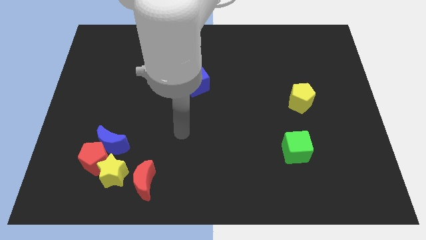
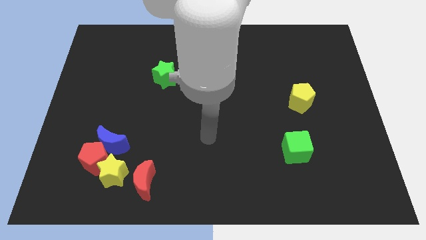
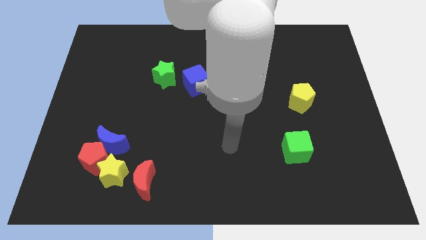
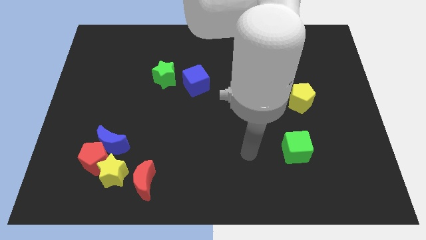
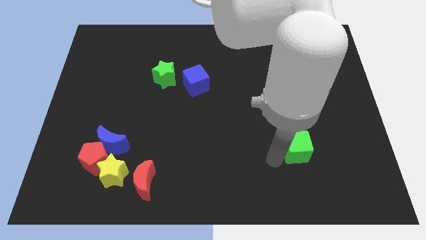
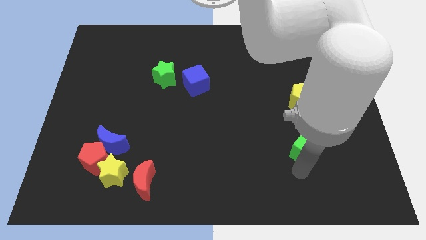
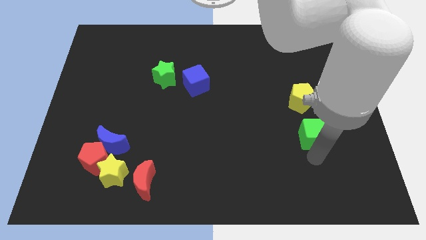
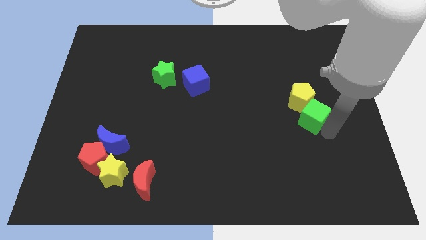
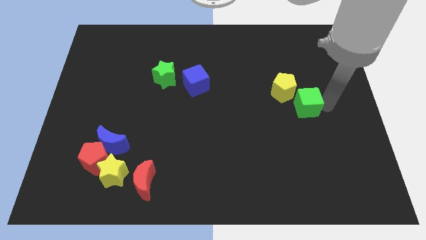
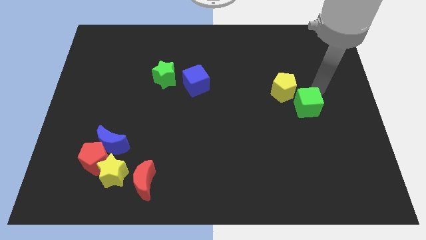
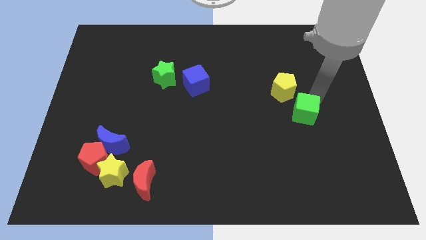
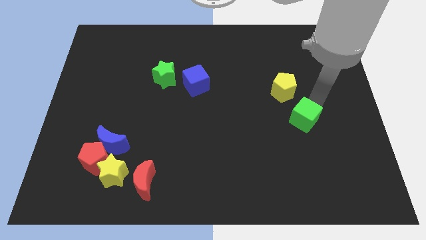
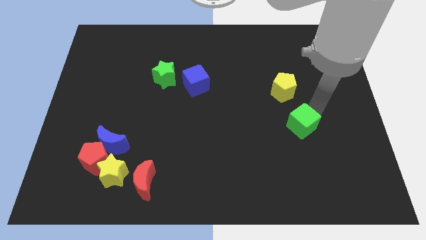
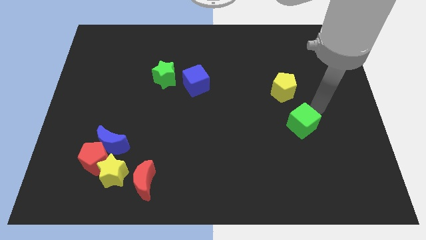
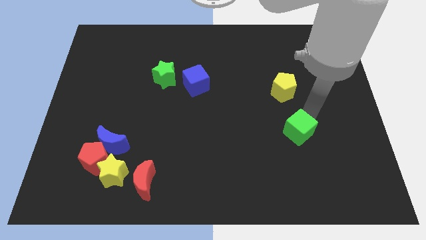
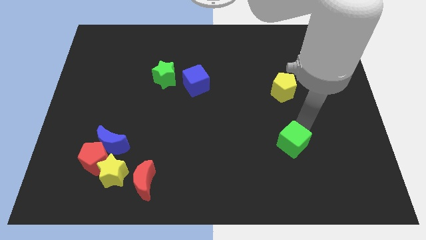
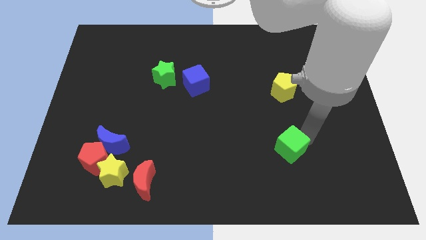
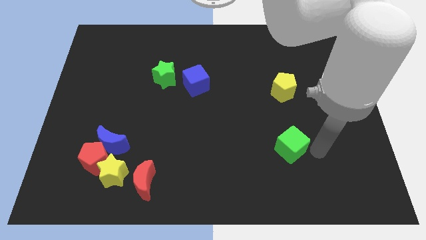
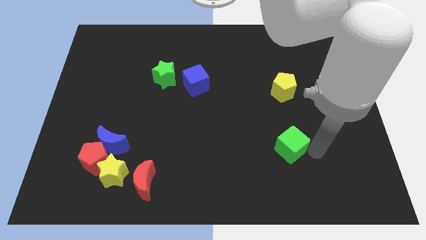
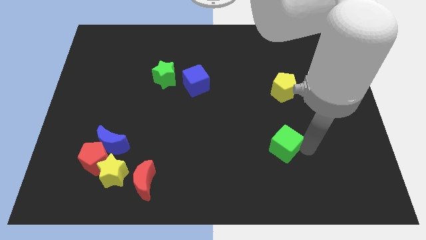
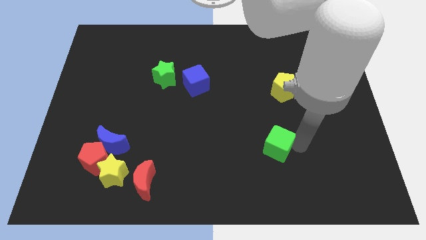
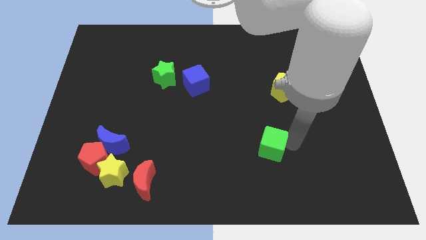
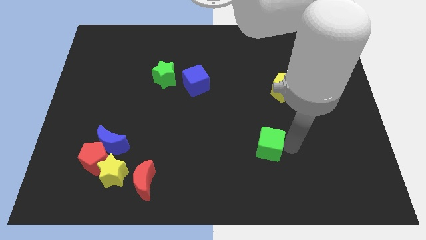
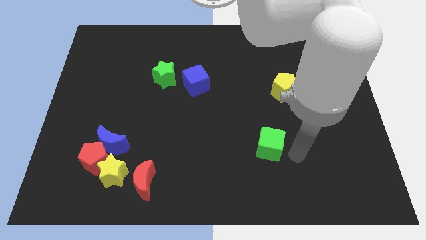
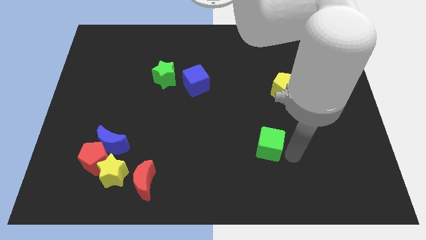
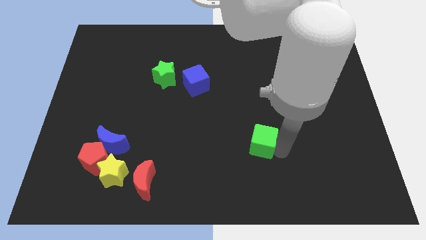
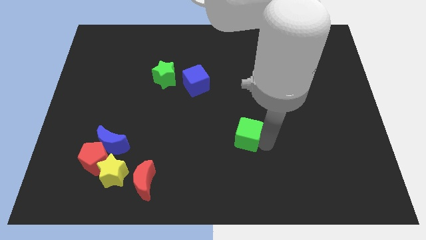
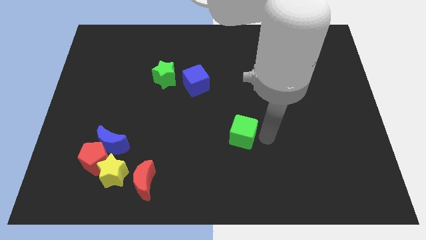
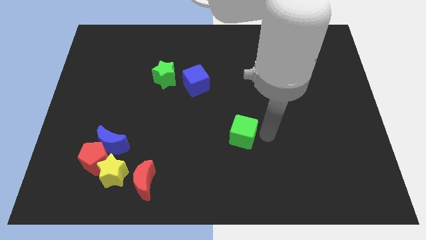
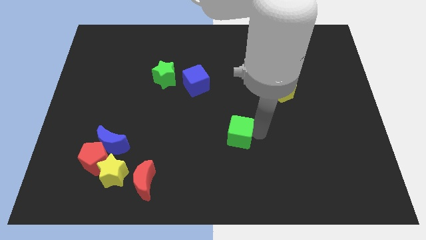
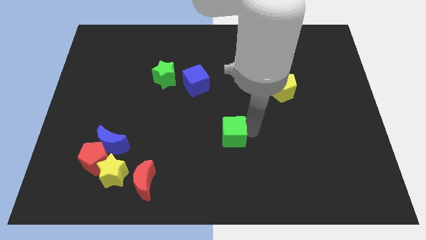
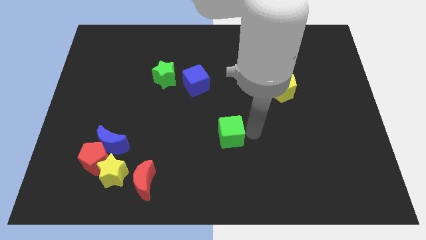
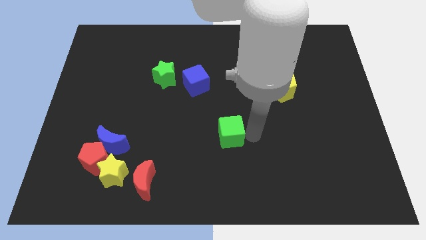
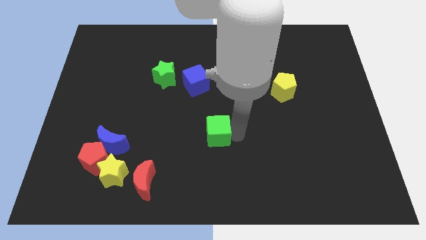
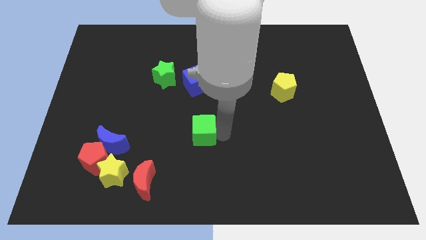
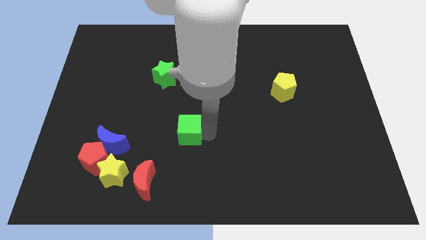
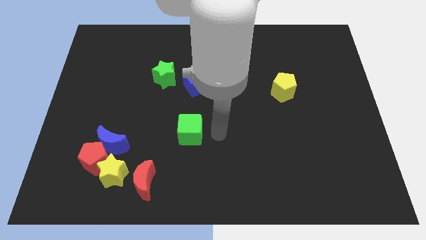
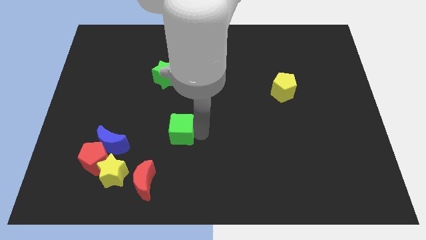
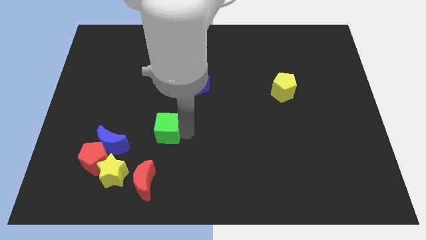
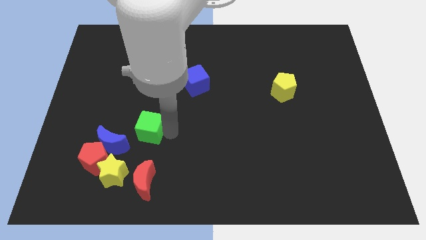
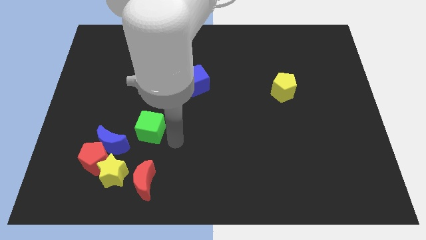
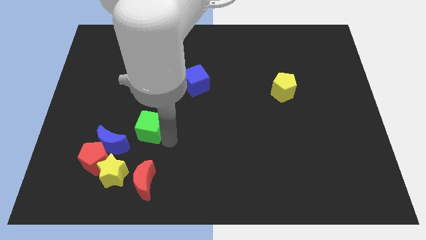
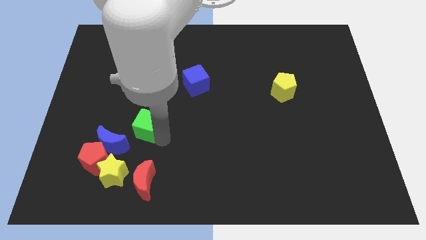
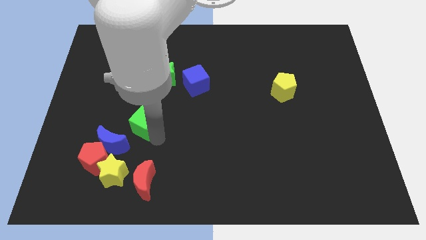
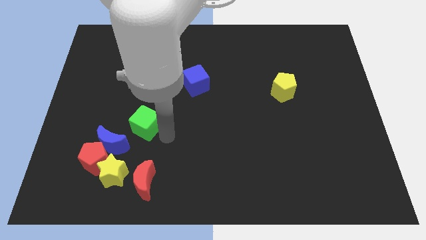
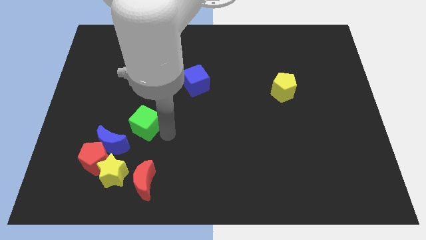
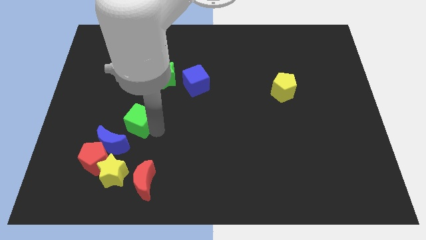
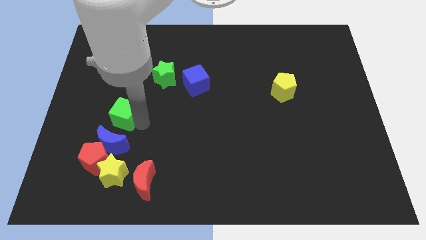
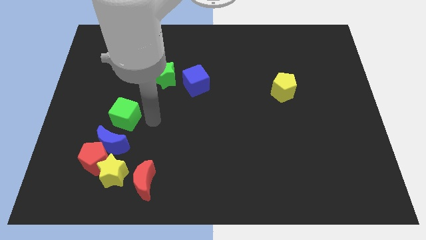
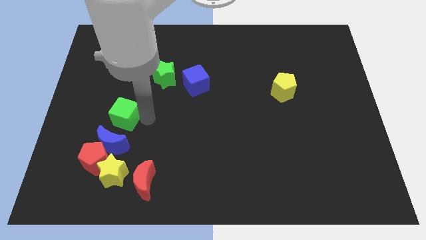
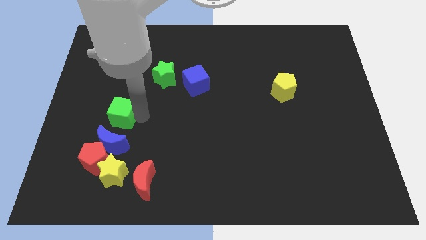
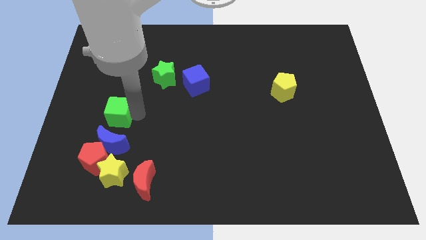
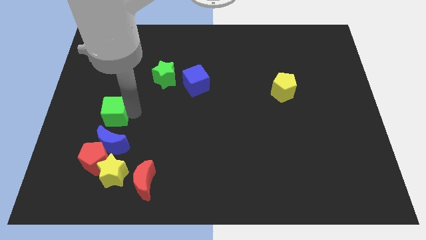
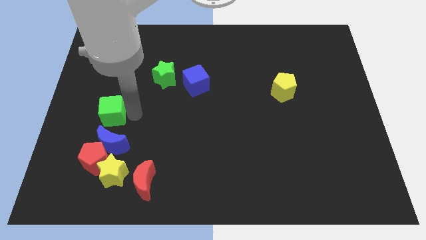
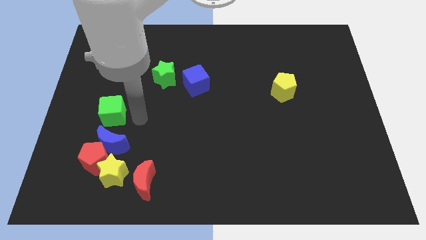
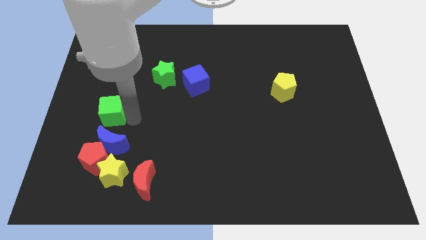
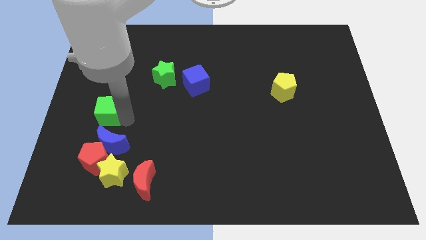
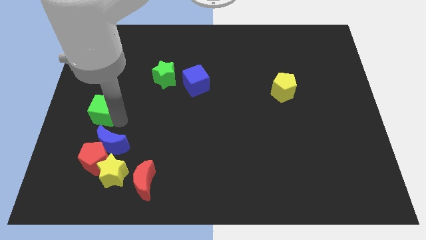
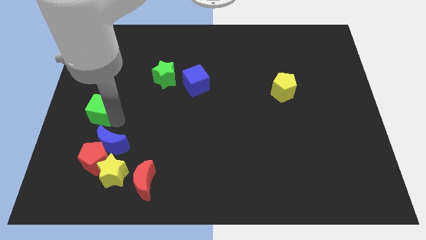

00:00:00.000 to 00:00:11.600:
push the green cube to the left side

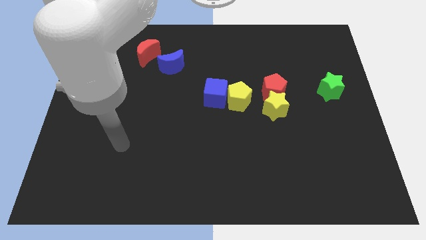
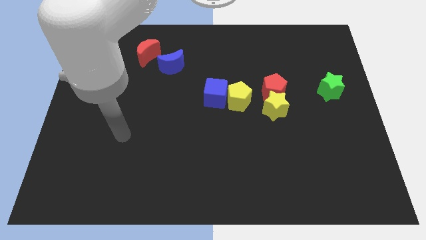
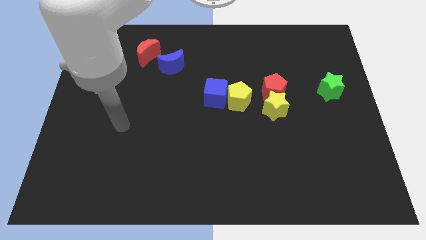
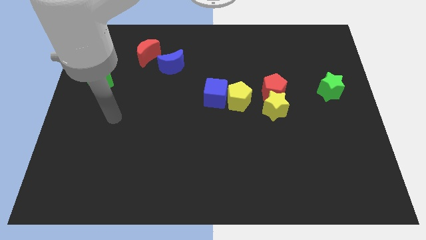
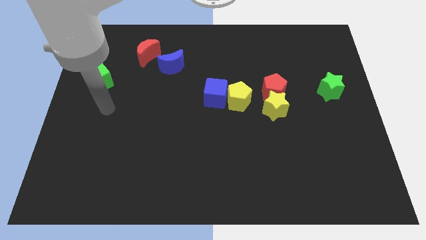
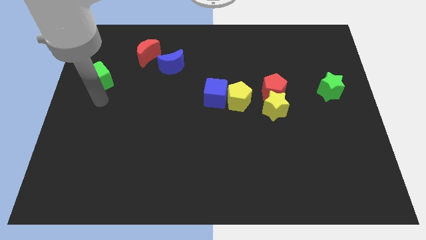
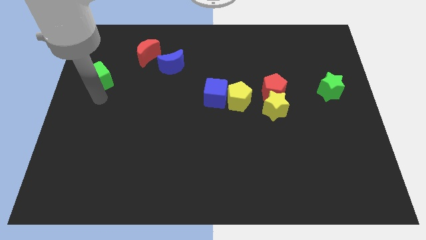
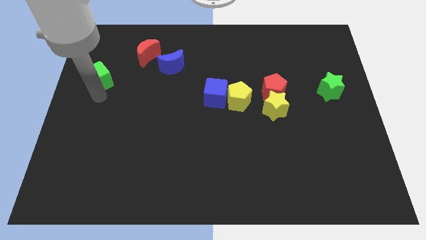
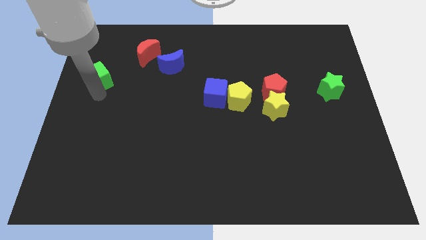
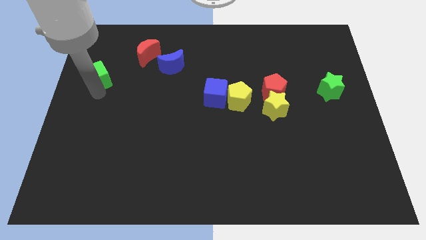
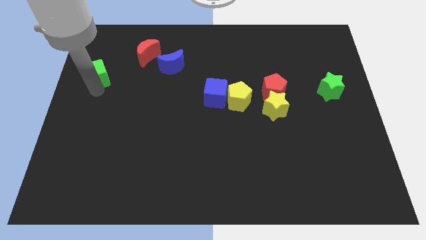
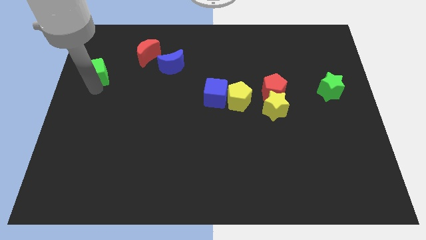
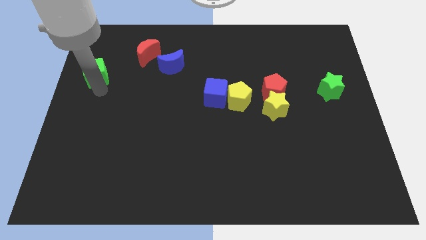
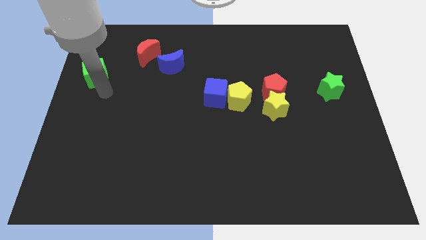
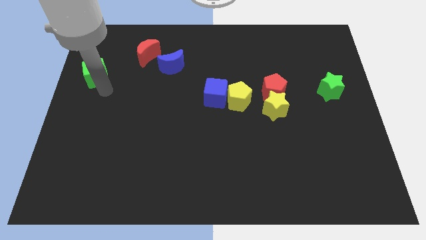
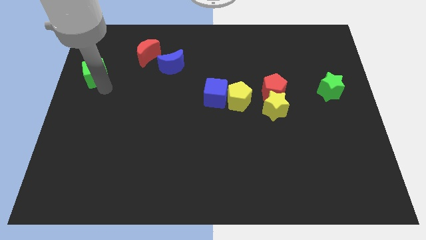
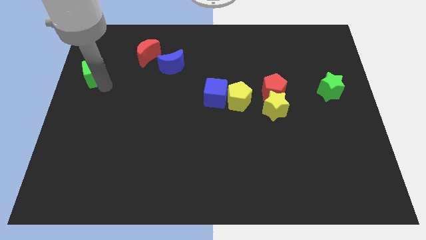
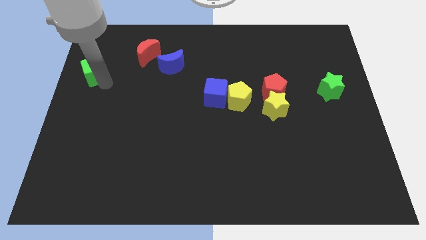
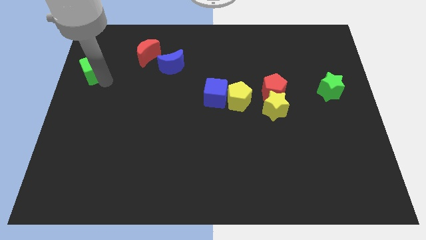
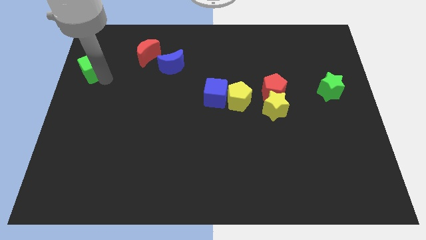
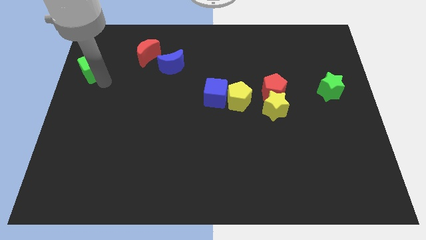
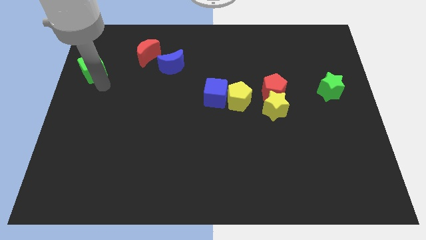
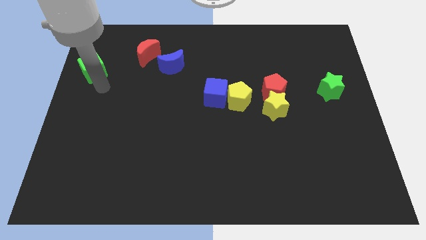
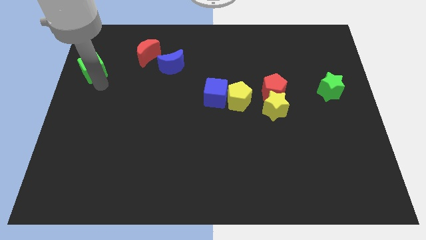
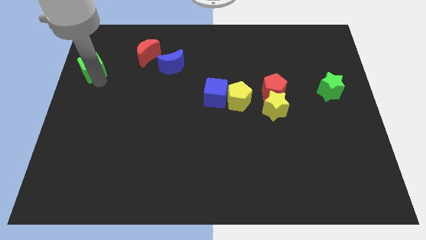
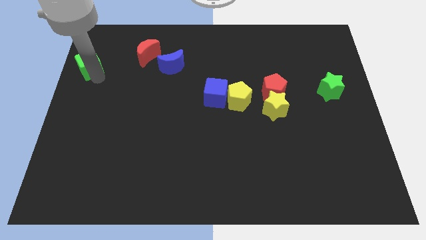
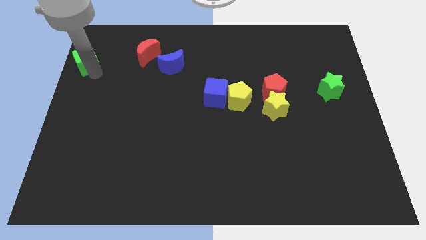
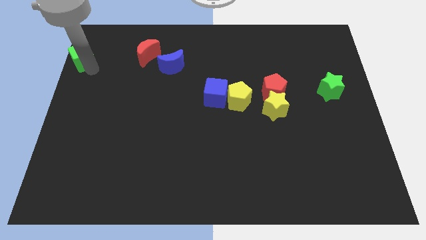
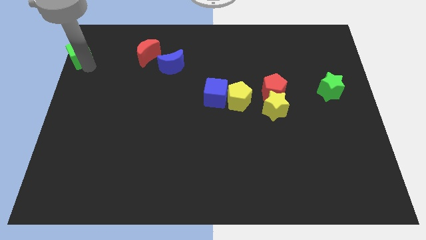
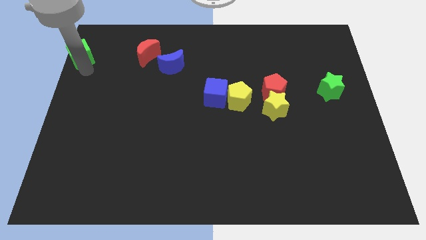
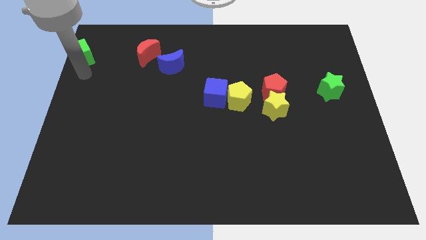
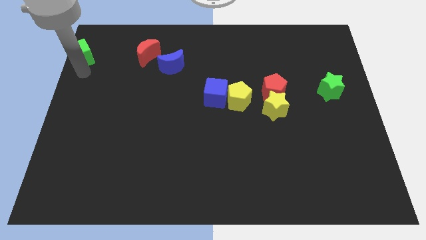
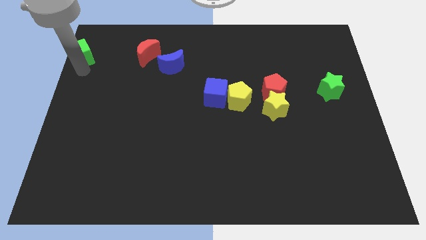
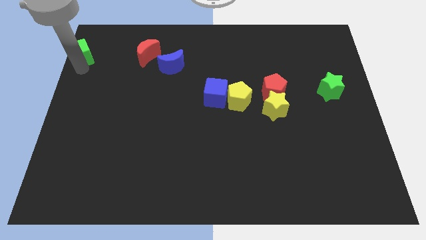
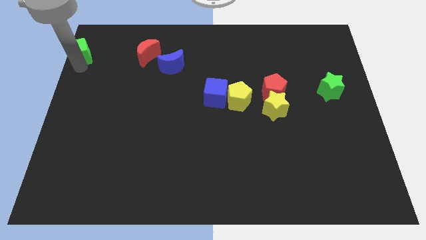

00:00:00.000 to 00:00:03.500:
move the green cube to the top left corner
